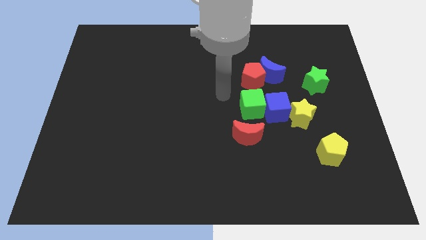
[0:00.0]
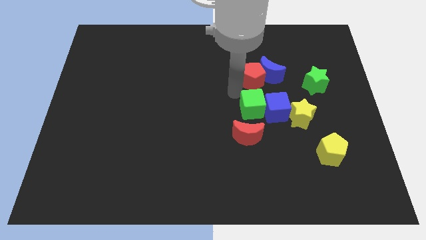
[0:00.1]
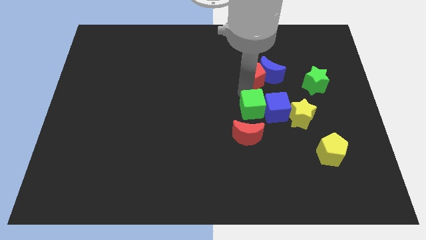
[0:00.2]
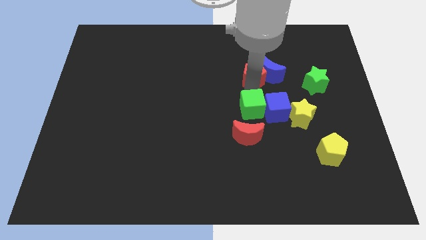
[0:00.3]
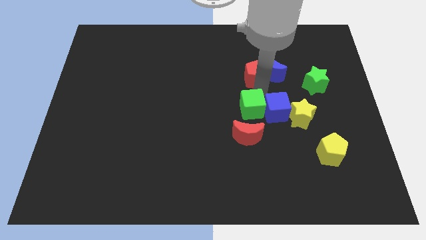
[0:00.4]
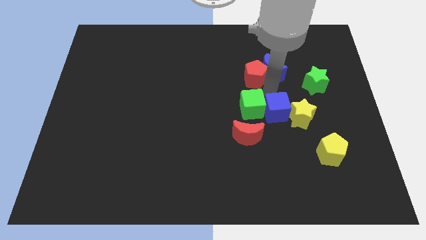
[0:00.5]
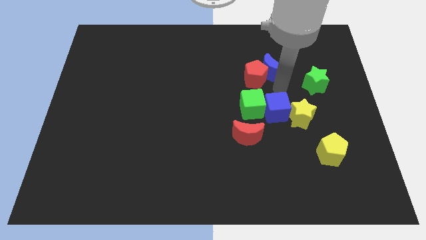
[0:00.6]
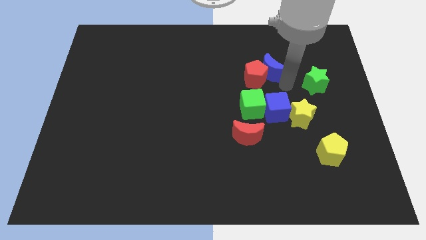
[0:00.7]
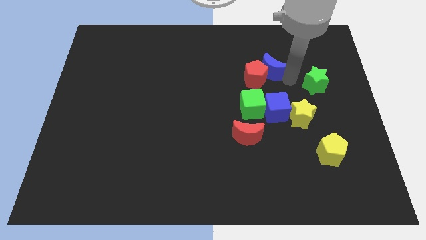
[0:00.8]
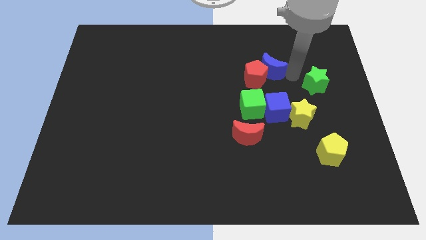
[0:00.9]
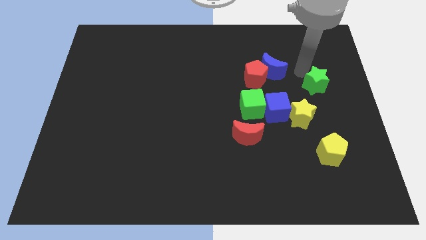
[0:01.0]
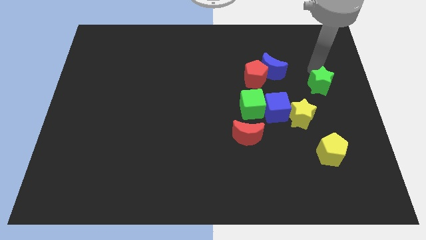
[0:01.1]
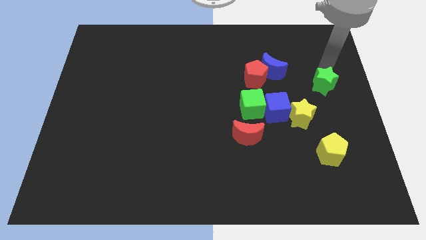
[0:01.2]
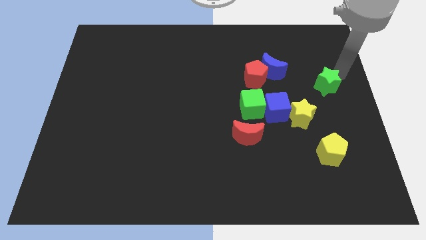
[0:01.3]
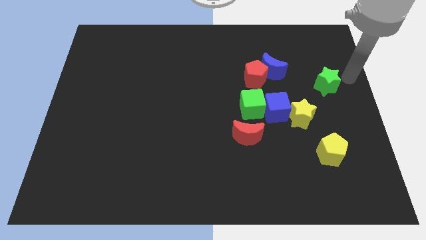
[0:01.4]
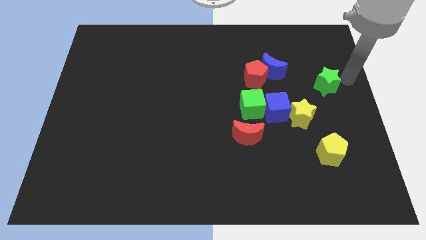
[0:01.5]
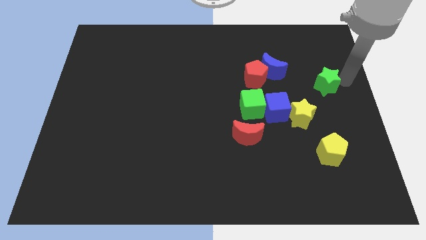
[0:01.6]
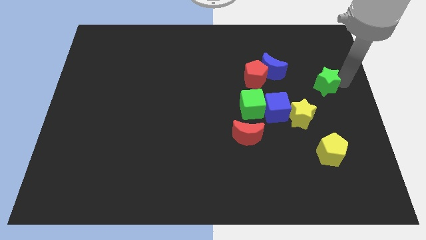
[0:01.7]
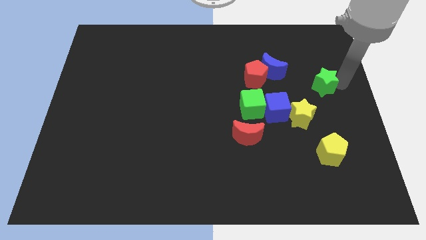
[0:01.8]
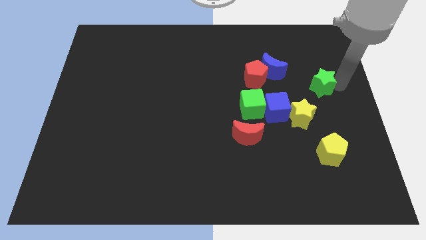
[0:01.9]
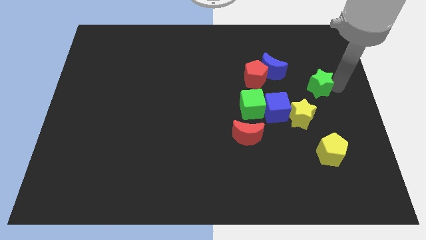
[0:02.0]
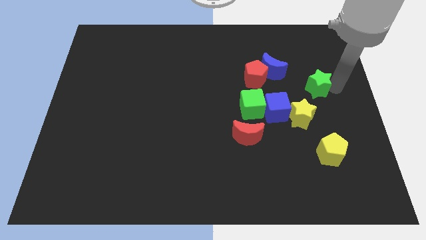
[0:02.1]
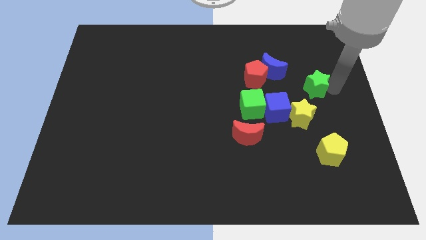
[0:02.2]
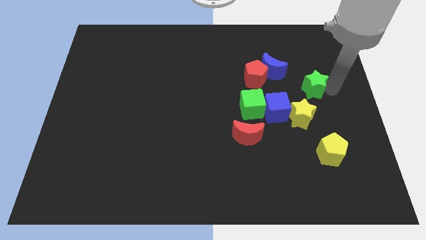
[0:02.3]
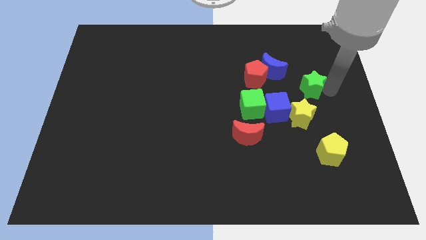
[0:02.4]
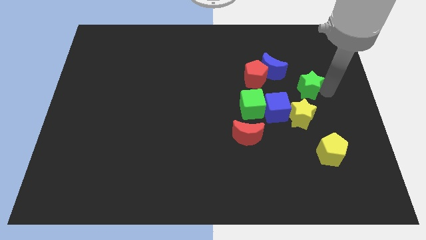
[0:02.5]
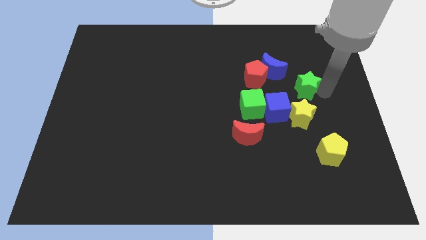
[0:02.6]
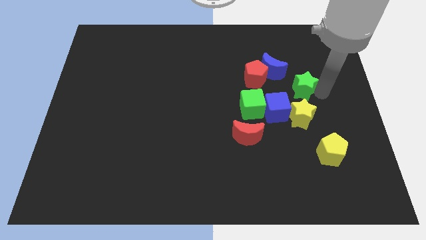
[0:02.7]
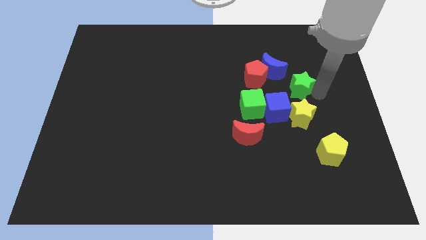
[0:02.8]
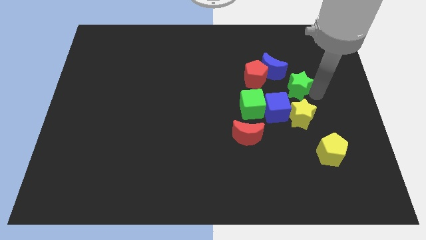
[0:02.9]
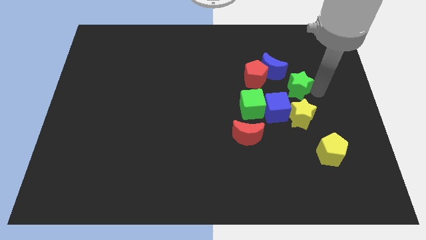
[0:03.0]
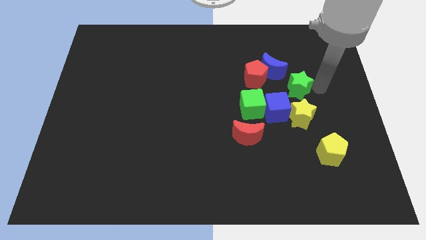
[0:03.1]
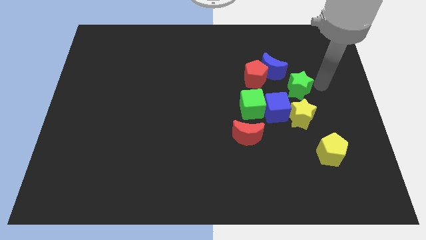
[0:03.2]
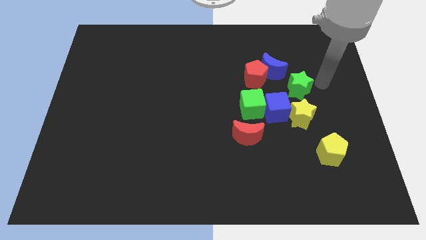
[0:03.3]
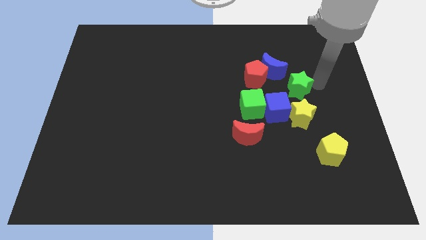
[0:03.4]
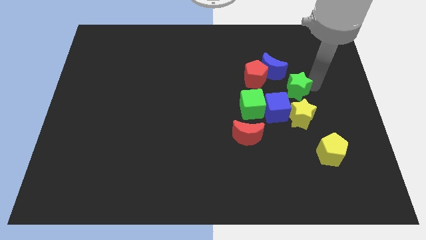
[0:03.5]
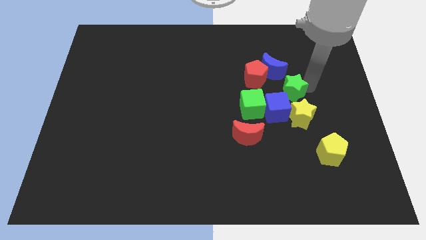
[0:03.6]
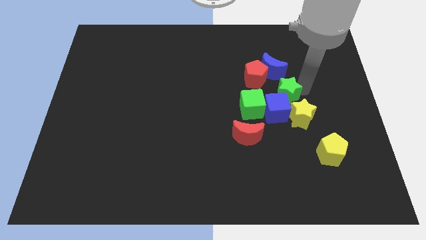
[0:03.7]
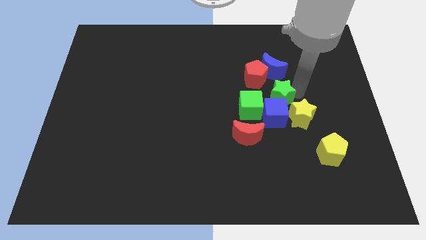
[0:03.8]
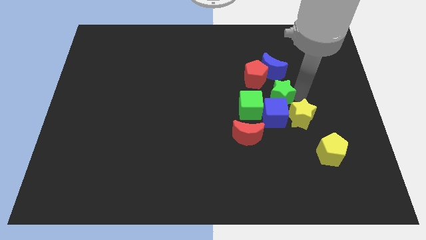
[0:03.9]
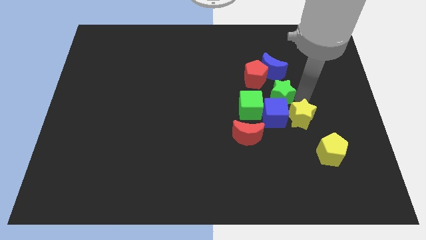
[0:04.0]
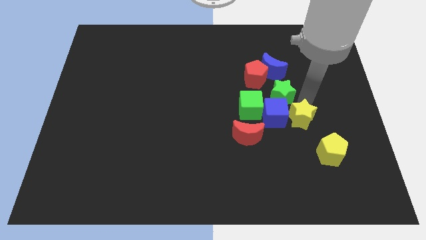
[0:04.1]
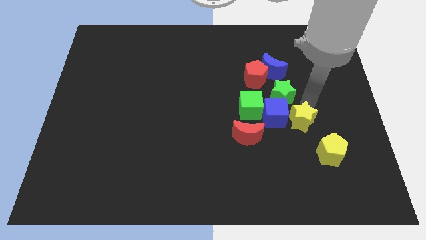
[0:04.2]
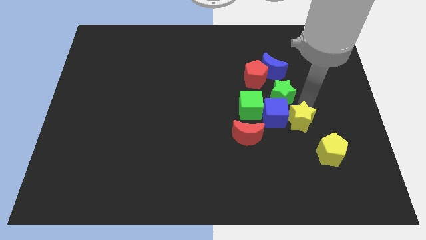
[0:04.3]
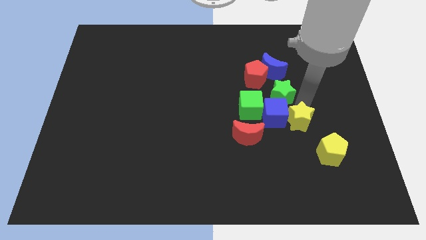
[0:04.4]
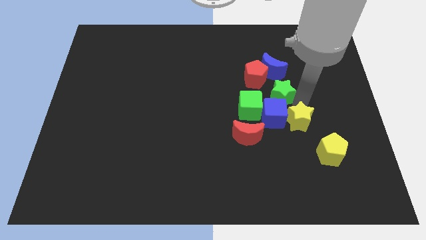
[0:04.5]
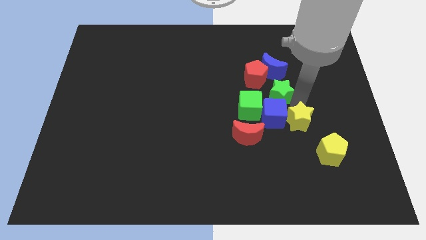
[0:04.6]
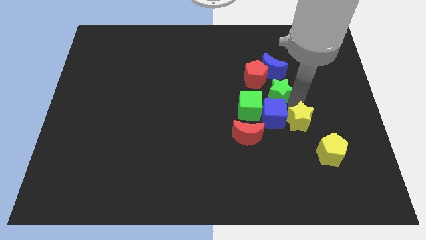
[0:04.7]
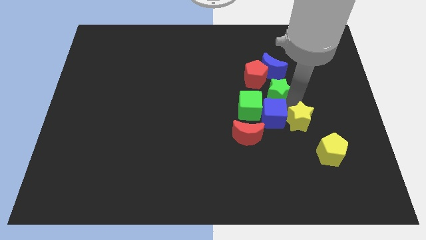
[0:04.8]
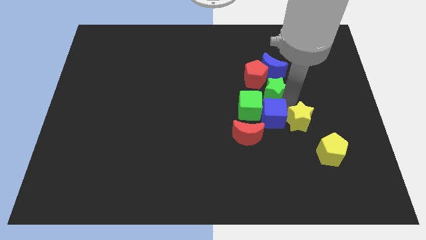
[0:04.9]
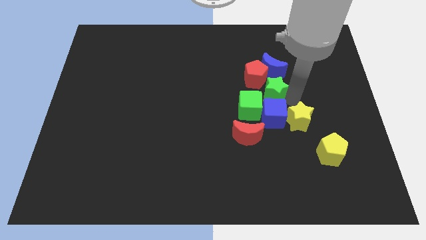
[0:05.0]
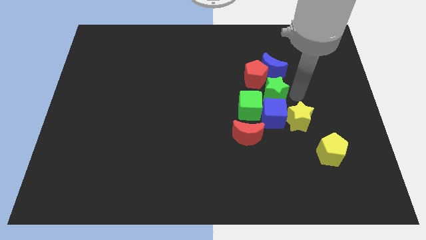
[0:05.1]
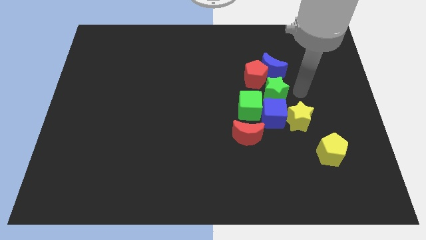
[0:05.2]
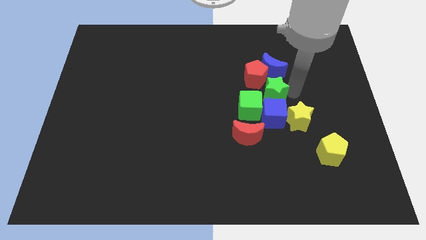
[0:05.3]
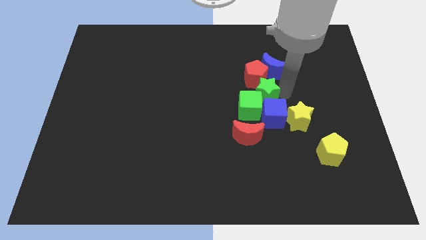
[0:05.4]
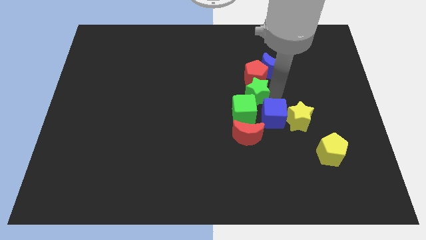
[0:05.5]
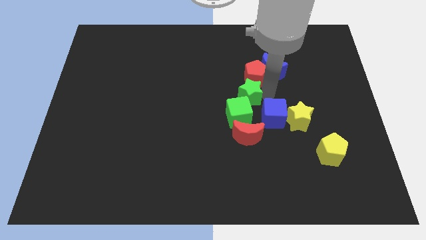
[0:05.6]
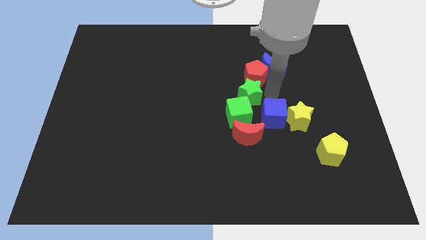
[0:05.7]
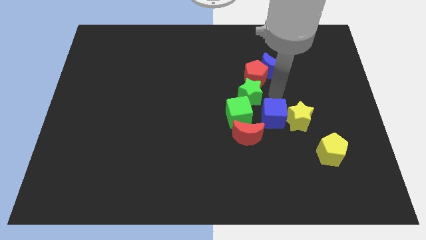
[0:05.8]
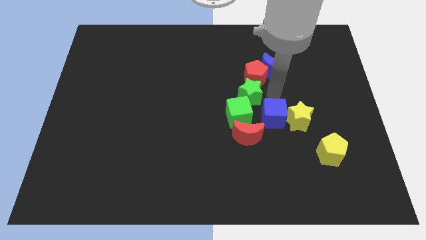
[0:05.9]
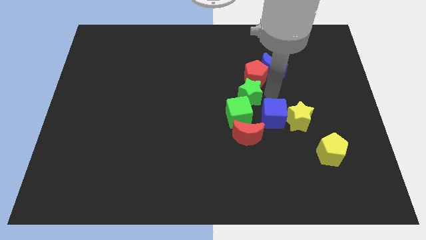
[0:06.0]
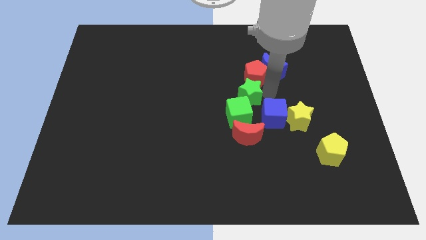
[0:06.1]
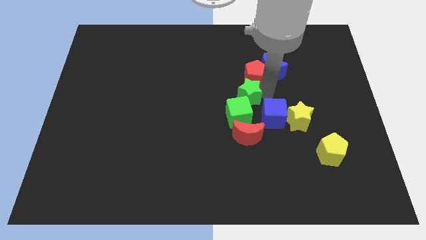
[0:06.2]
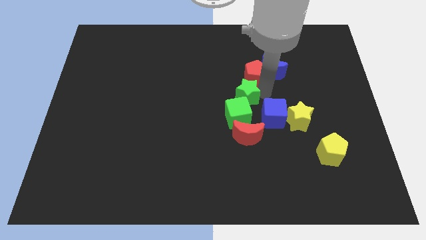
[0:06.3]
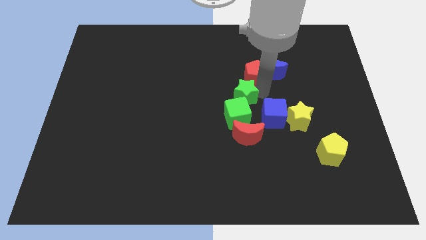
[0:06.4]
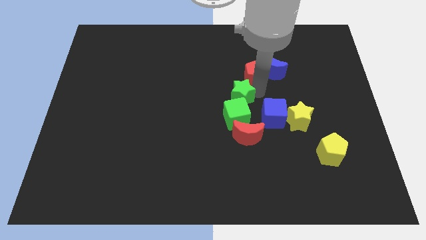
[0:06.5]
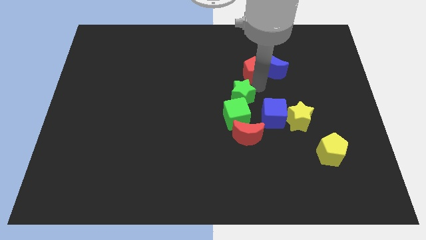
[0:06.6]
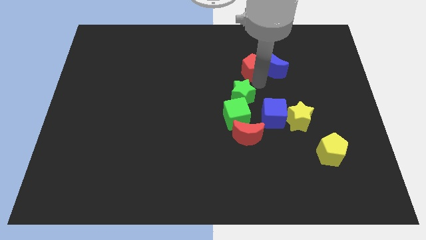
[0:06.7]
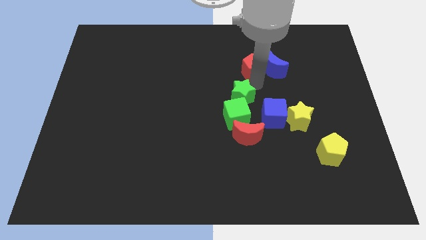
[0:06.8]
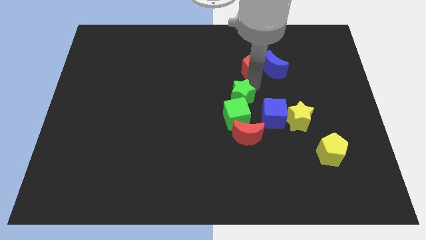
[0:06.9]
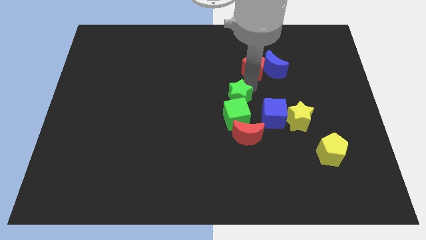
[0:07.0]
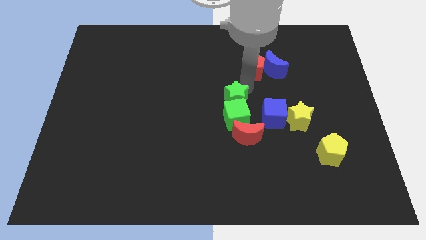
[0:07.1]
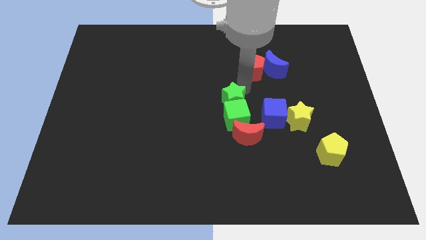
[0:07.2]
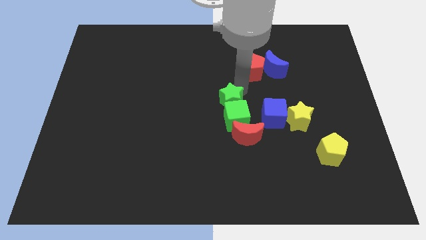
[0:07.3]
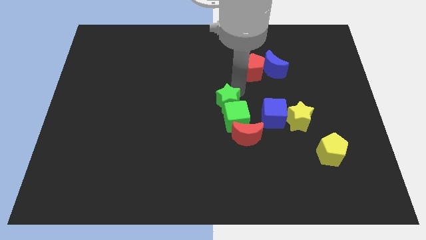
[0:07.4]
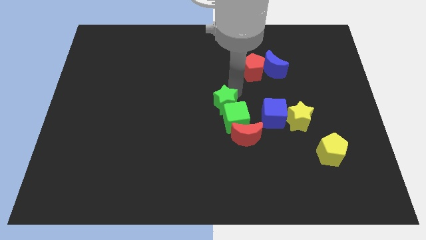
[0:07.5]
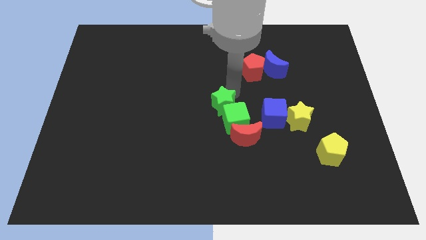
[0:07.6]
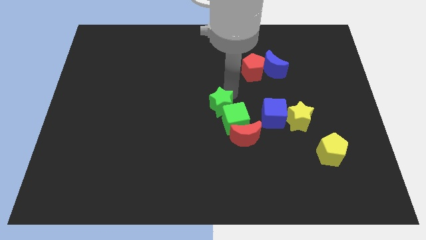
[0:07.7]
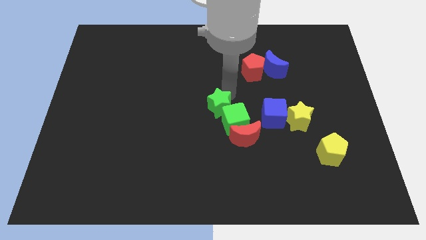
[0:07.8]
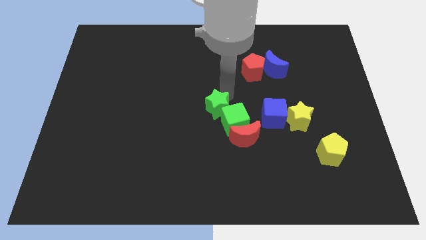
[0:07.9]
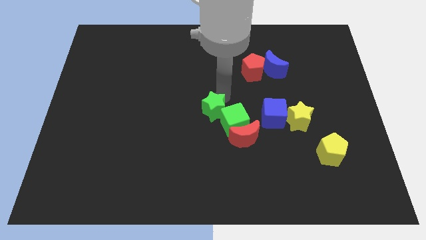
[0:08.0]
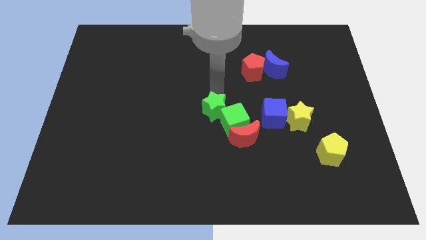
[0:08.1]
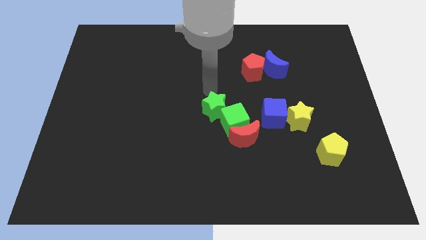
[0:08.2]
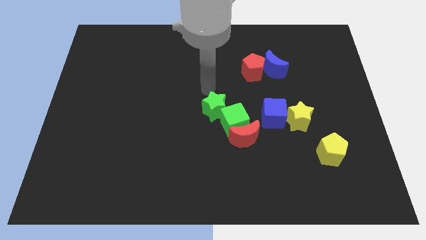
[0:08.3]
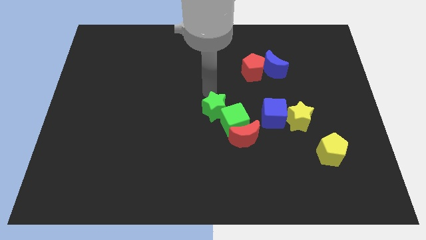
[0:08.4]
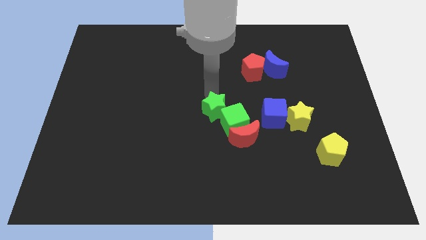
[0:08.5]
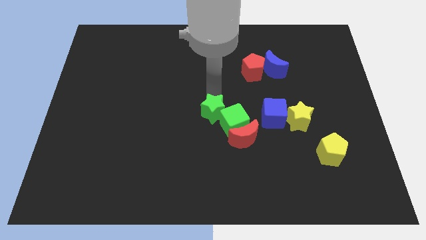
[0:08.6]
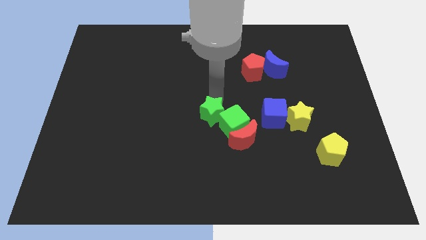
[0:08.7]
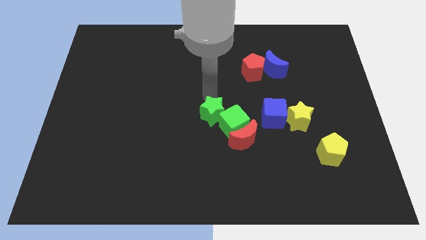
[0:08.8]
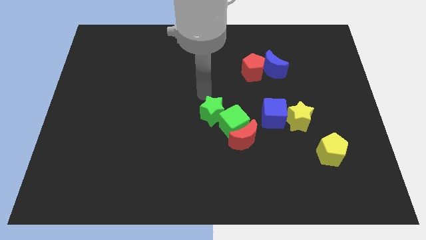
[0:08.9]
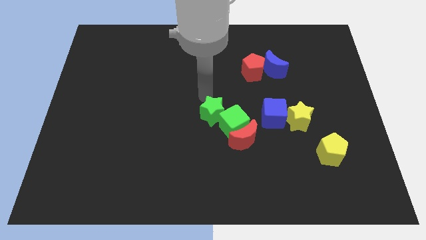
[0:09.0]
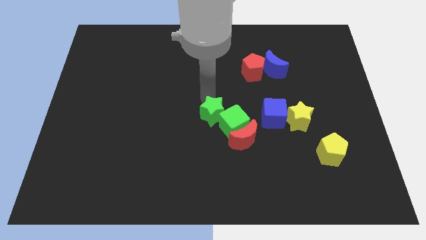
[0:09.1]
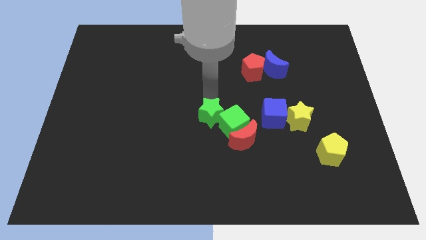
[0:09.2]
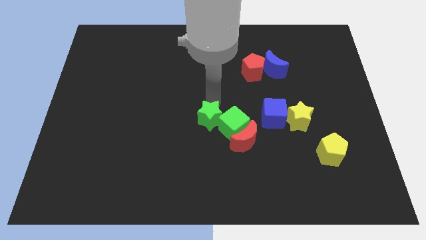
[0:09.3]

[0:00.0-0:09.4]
push the green star down and then to the left
